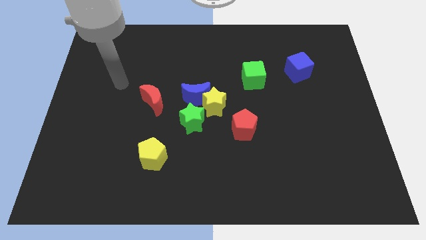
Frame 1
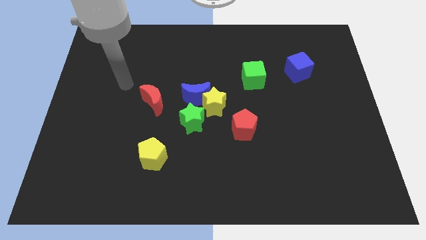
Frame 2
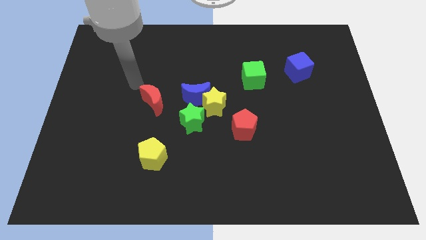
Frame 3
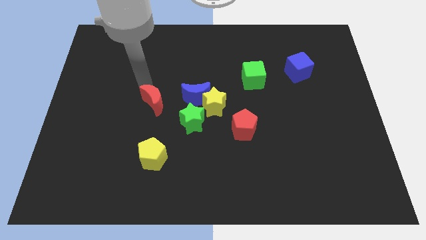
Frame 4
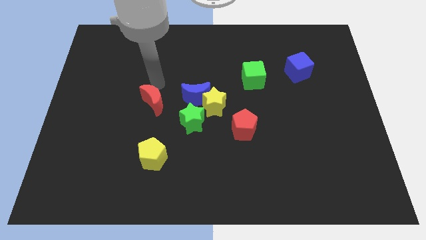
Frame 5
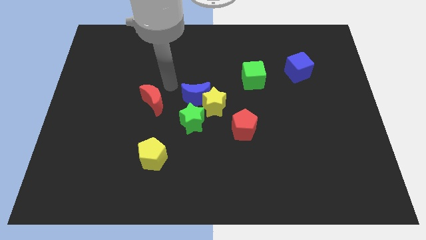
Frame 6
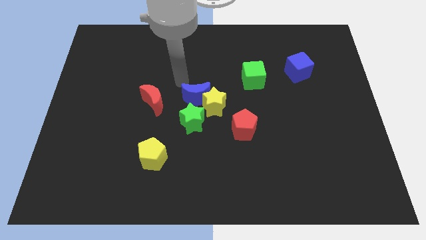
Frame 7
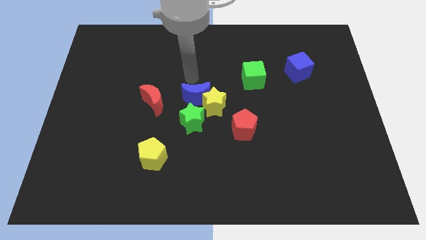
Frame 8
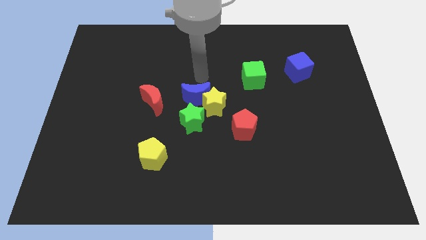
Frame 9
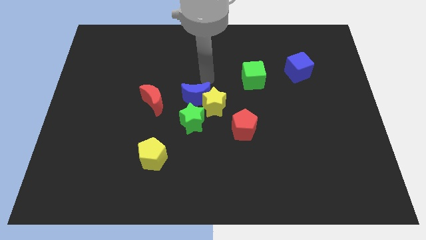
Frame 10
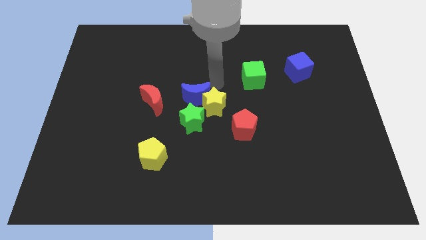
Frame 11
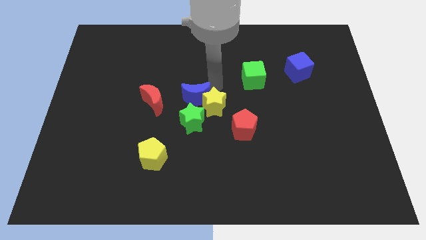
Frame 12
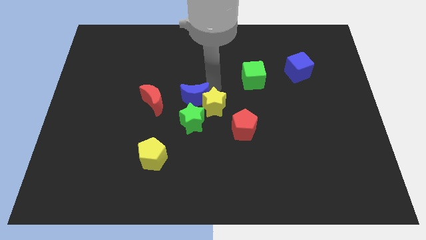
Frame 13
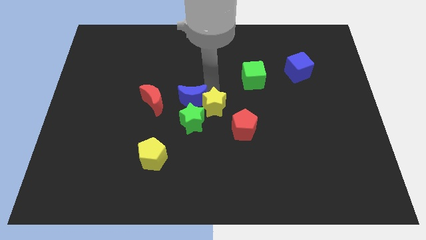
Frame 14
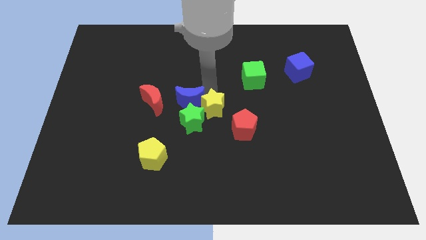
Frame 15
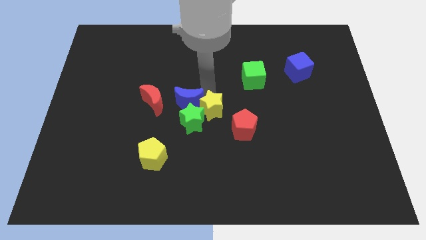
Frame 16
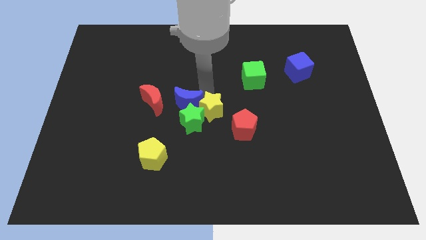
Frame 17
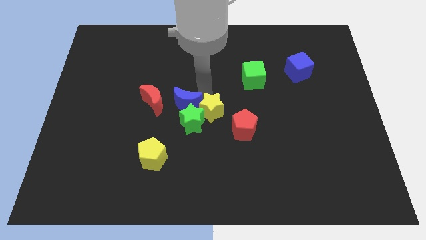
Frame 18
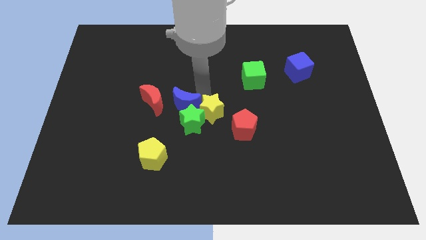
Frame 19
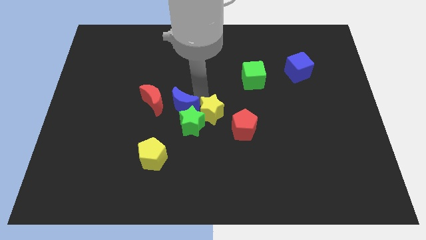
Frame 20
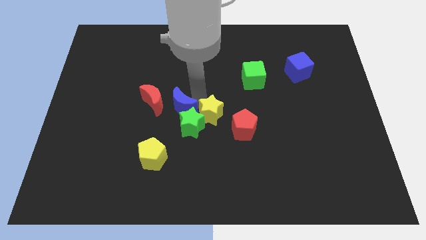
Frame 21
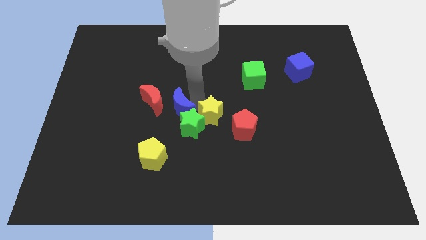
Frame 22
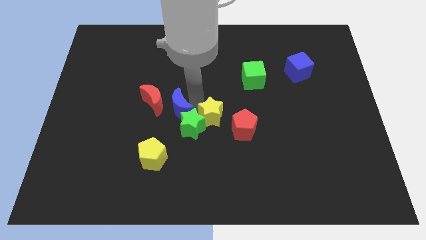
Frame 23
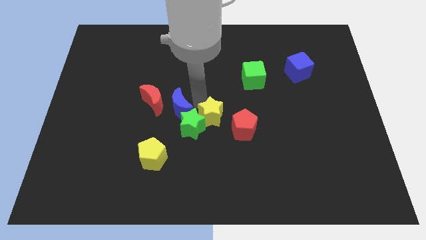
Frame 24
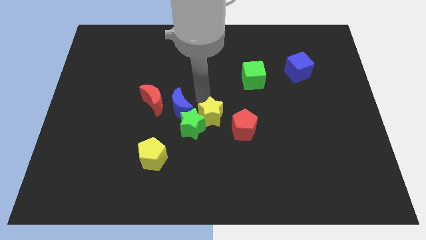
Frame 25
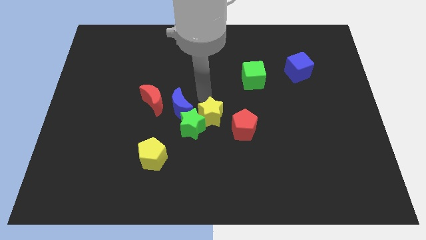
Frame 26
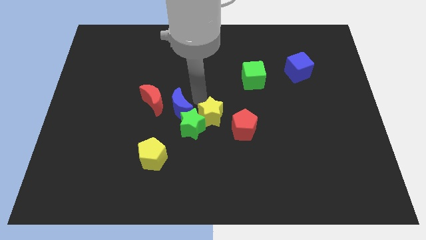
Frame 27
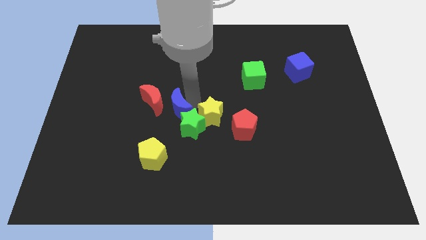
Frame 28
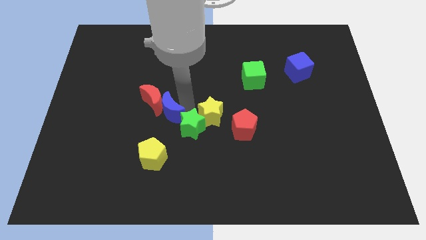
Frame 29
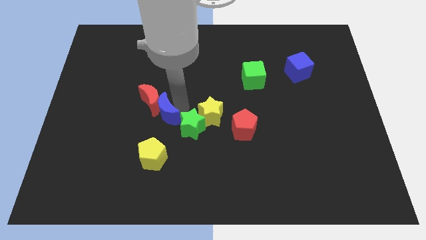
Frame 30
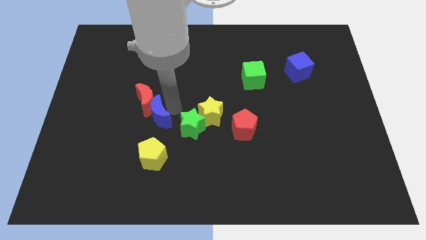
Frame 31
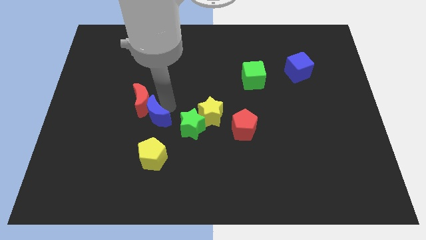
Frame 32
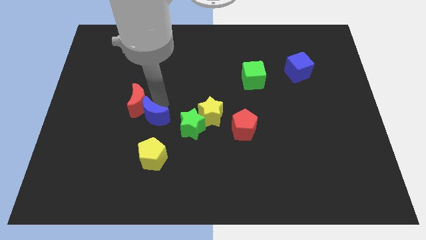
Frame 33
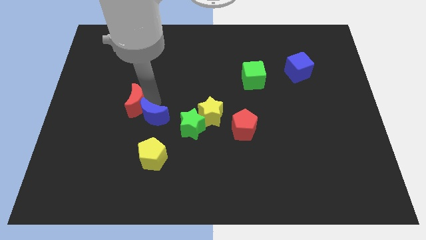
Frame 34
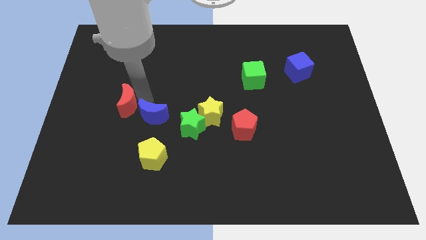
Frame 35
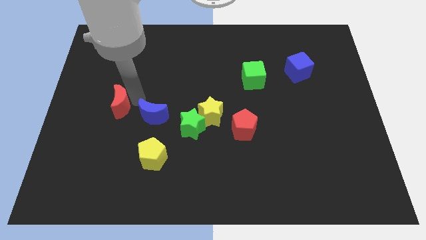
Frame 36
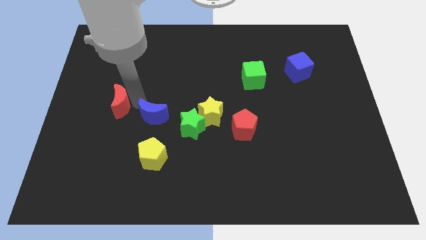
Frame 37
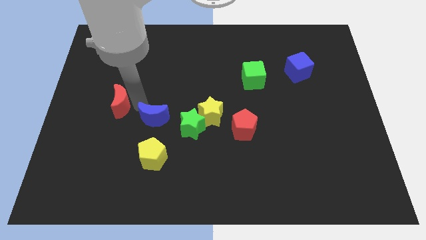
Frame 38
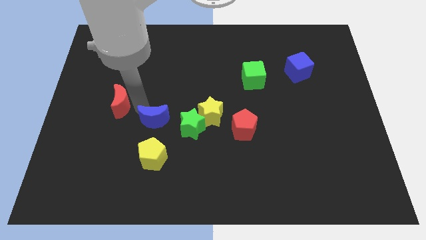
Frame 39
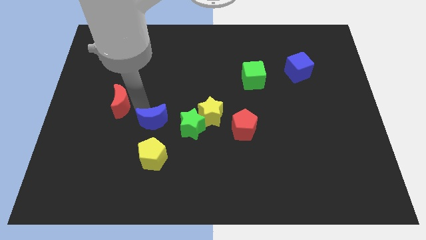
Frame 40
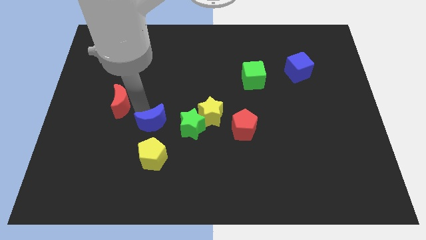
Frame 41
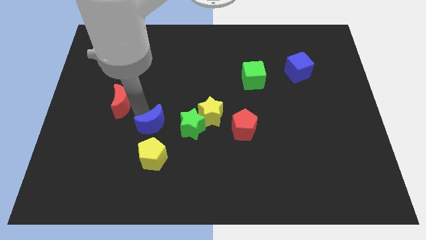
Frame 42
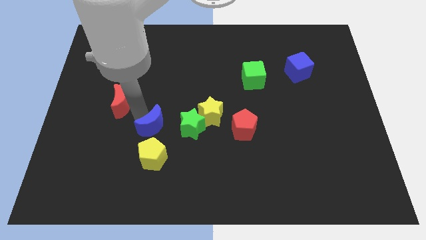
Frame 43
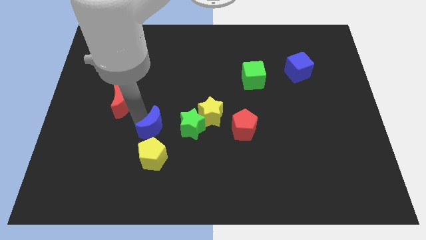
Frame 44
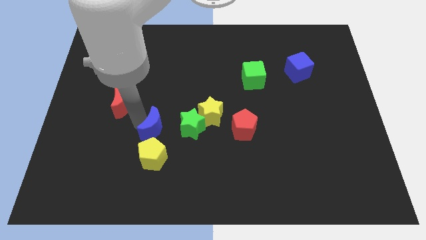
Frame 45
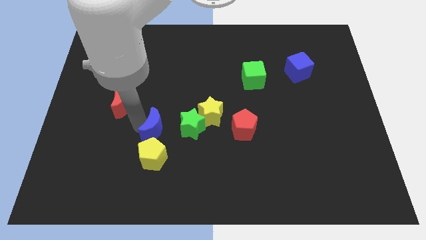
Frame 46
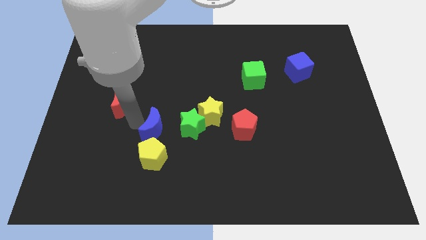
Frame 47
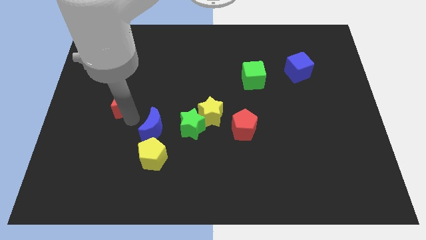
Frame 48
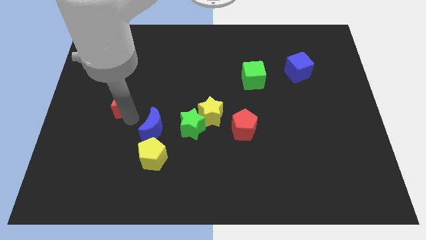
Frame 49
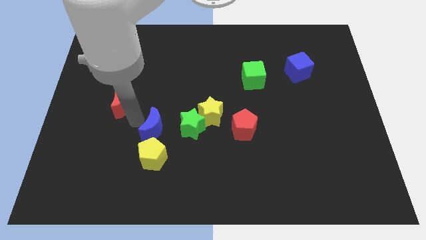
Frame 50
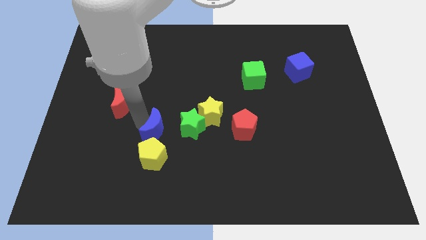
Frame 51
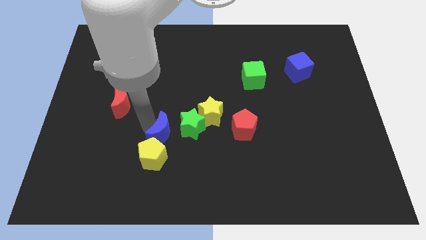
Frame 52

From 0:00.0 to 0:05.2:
move the blue moon down a little

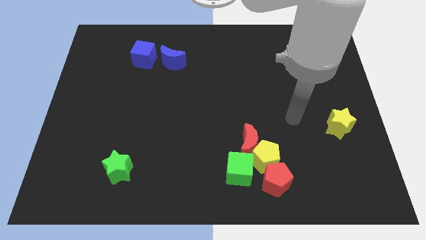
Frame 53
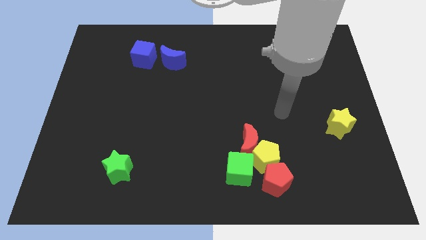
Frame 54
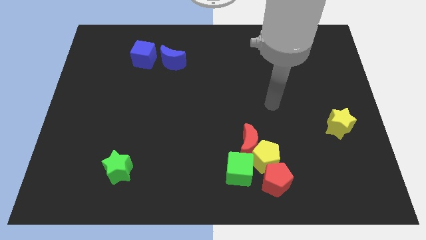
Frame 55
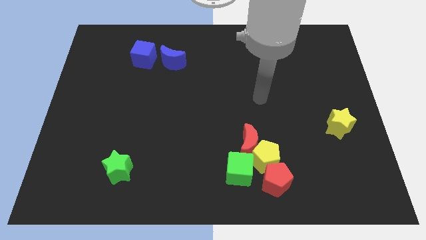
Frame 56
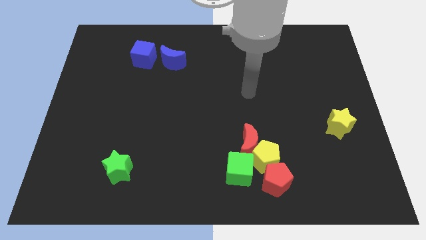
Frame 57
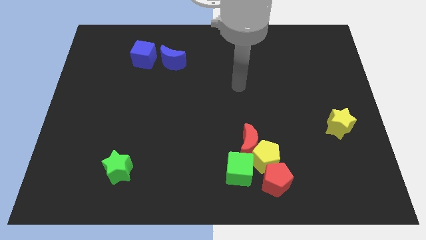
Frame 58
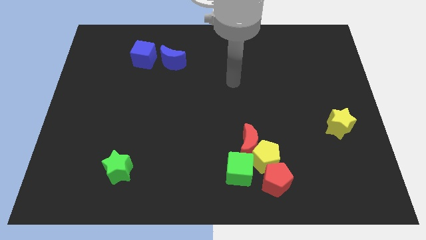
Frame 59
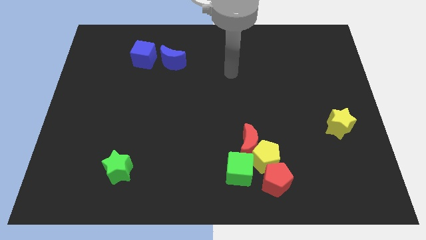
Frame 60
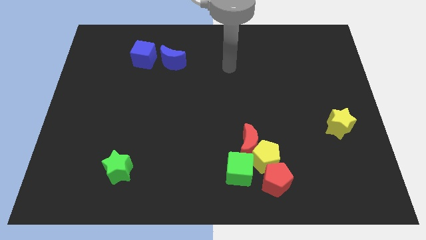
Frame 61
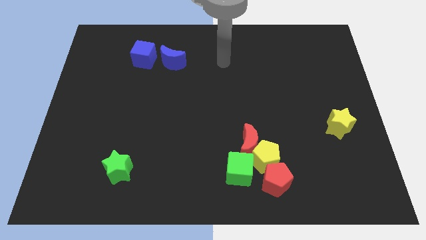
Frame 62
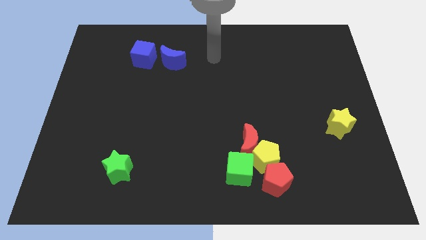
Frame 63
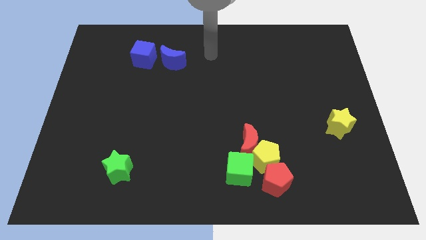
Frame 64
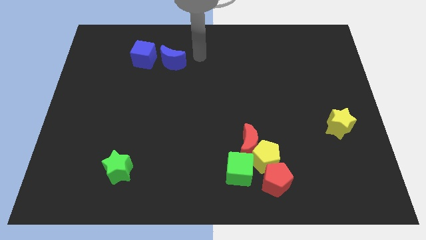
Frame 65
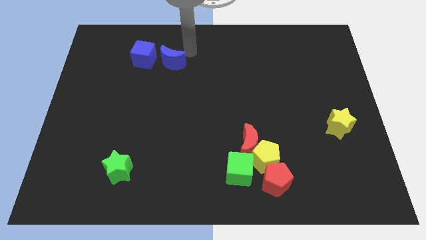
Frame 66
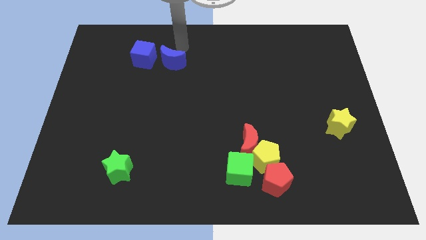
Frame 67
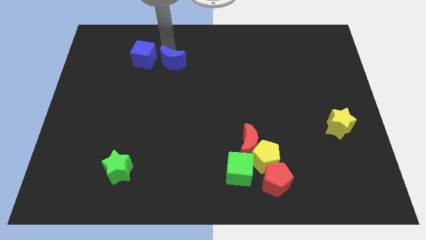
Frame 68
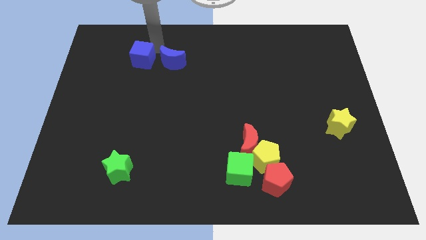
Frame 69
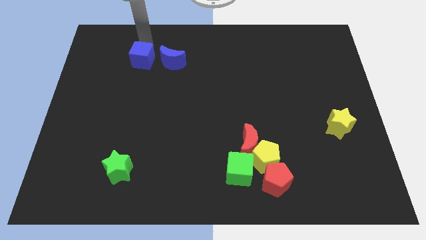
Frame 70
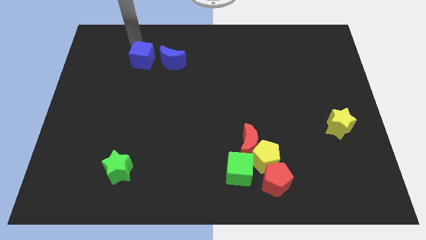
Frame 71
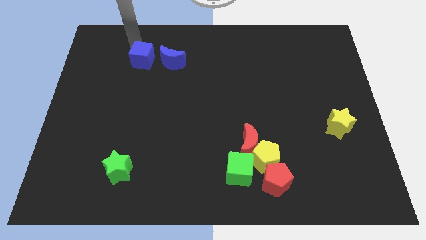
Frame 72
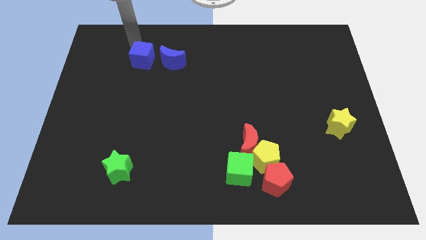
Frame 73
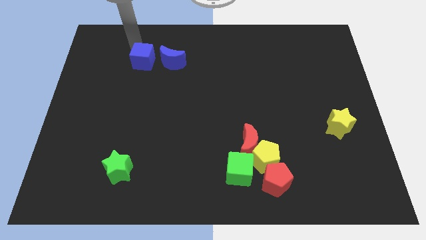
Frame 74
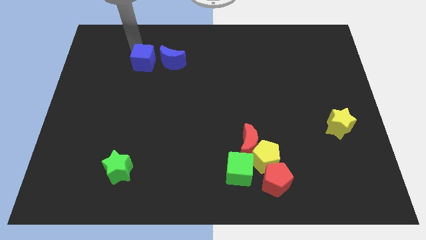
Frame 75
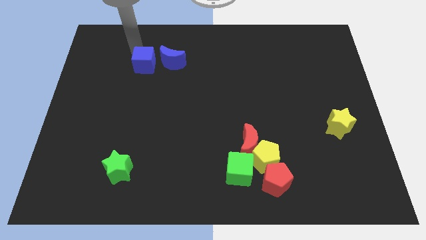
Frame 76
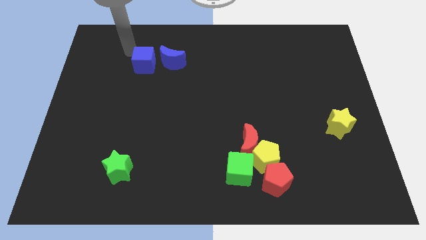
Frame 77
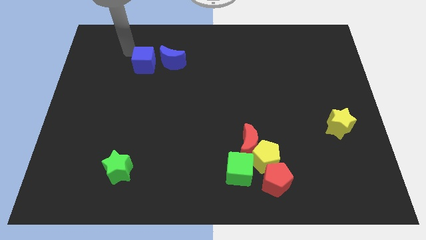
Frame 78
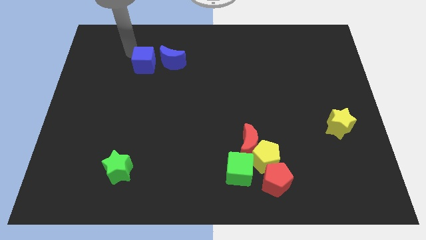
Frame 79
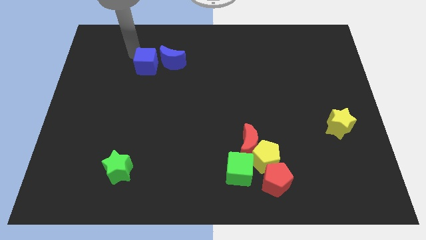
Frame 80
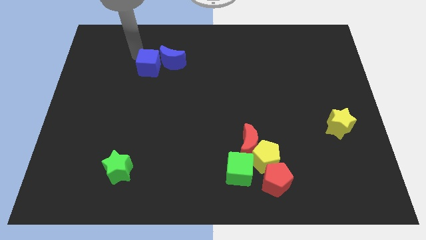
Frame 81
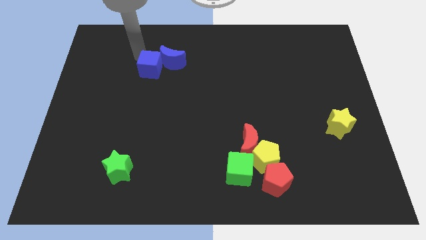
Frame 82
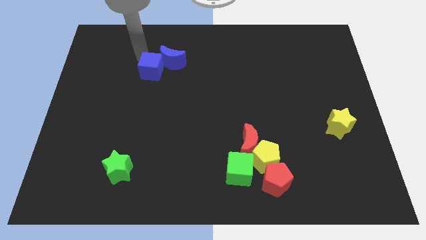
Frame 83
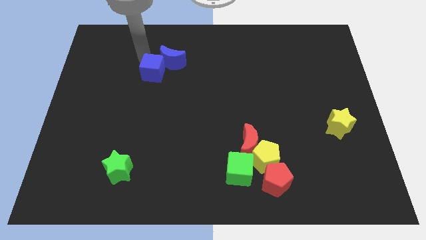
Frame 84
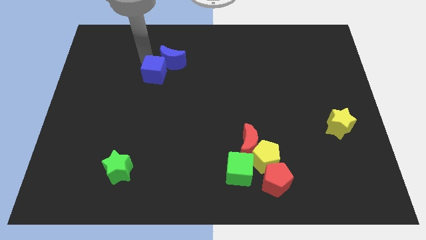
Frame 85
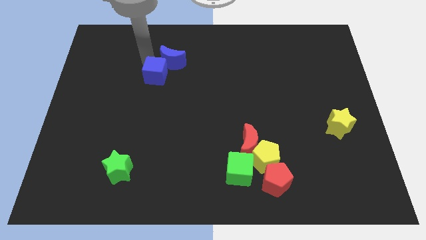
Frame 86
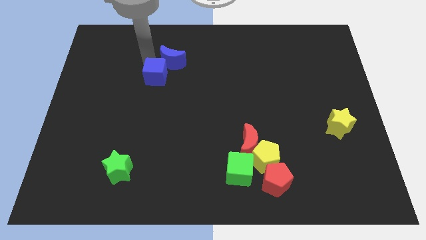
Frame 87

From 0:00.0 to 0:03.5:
push the blue cube a little bit down and to the right
